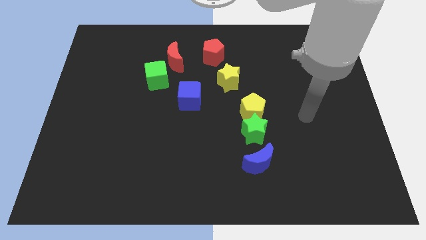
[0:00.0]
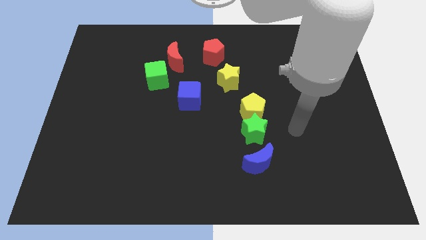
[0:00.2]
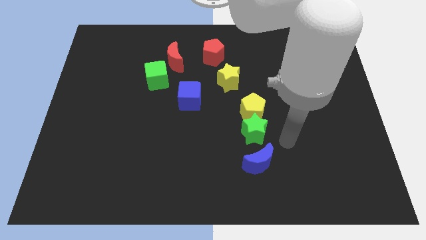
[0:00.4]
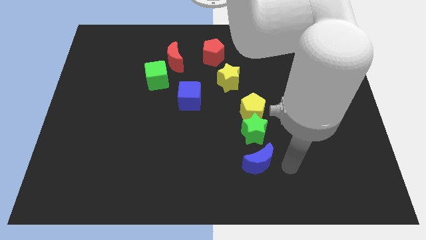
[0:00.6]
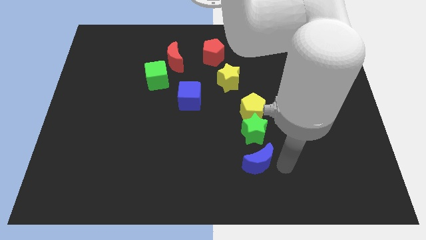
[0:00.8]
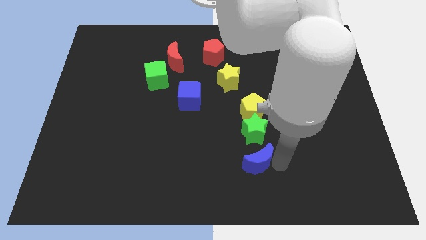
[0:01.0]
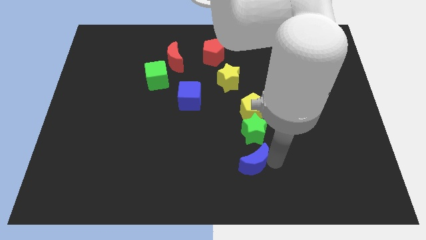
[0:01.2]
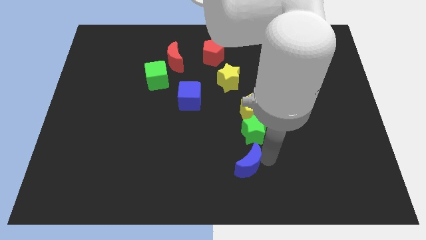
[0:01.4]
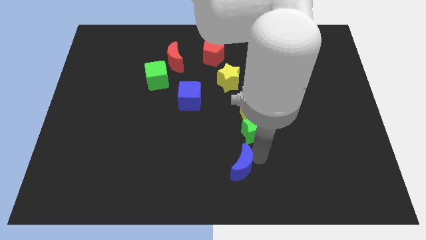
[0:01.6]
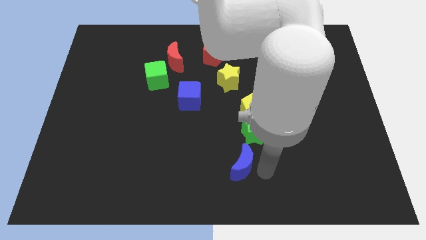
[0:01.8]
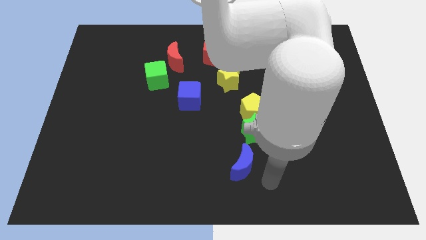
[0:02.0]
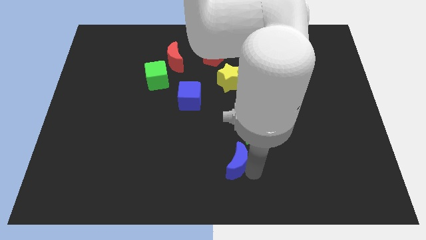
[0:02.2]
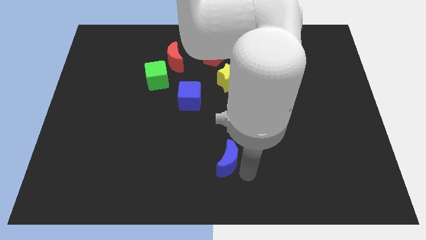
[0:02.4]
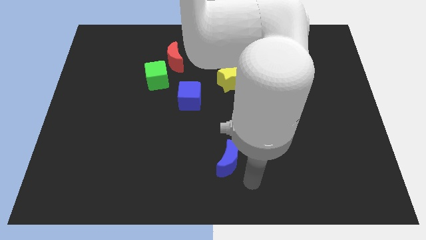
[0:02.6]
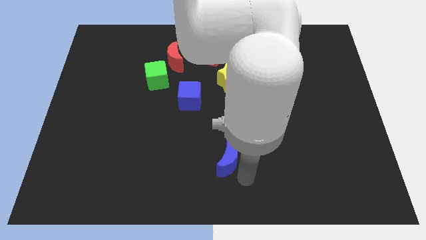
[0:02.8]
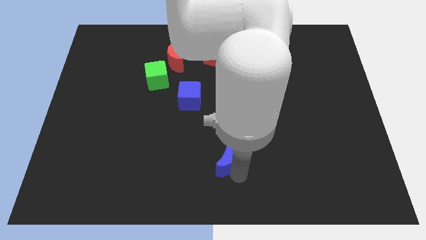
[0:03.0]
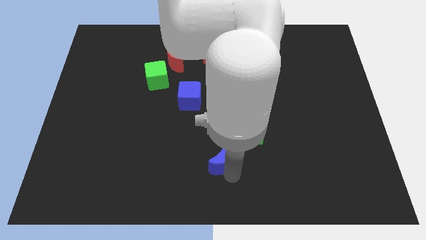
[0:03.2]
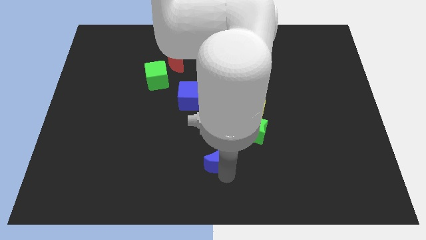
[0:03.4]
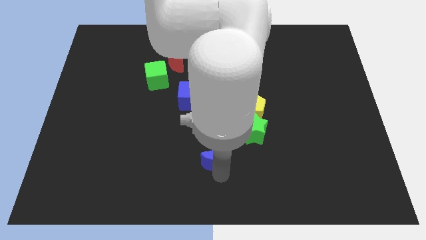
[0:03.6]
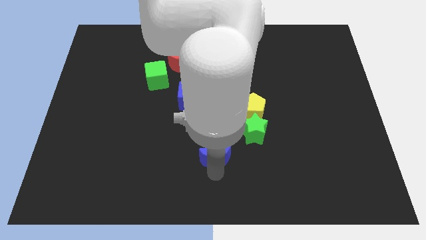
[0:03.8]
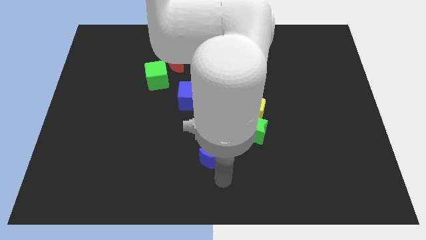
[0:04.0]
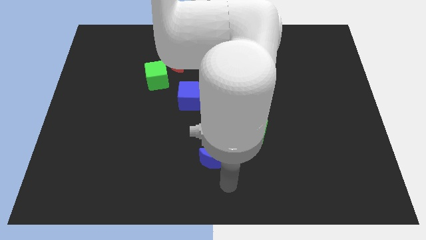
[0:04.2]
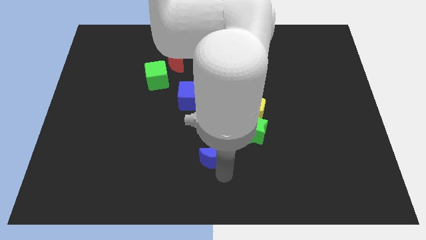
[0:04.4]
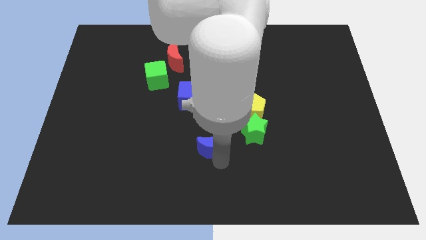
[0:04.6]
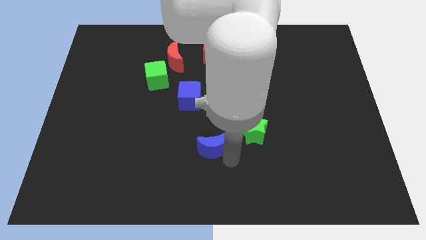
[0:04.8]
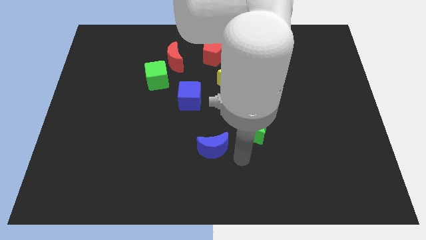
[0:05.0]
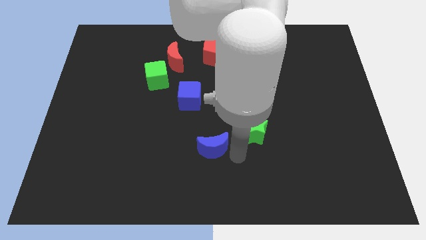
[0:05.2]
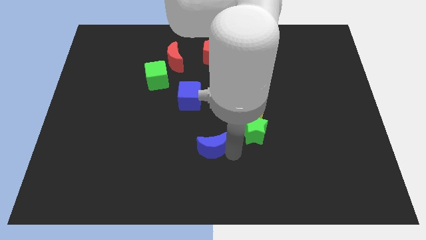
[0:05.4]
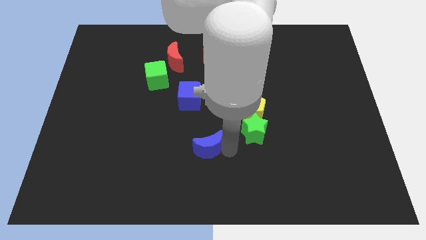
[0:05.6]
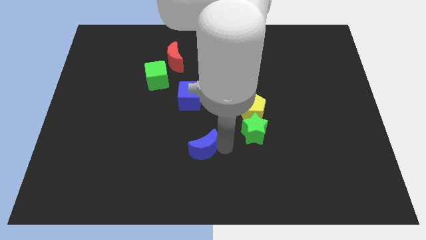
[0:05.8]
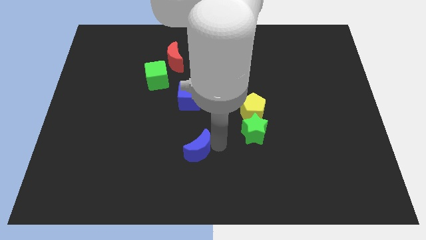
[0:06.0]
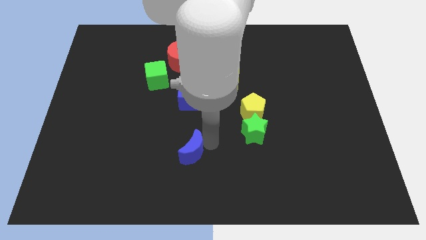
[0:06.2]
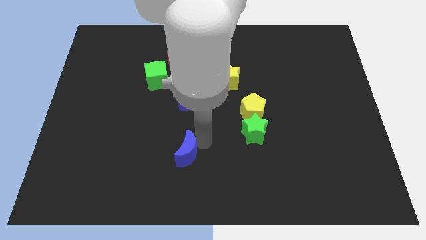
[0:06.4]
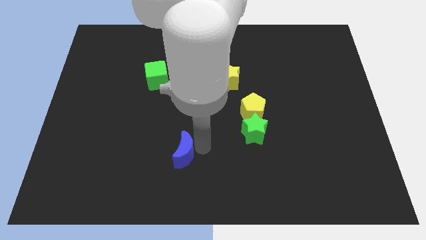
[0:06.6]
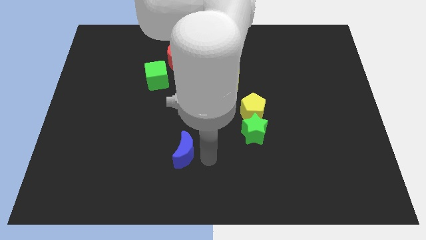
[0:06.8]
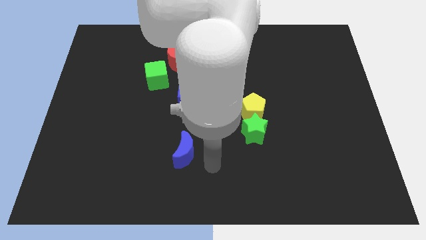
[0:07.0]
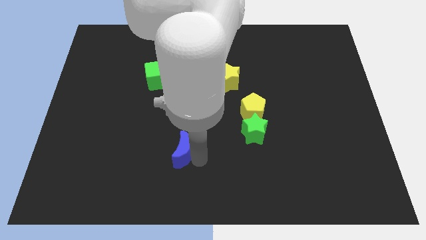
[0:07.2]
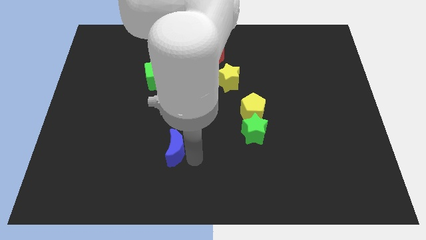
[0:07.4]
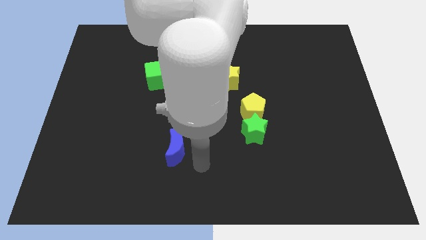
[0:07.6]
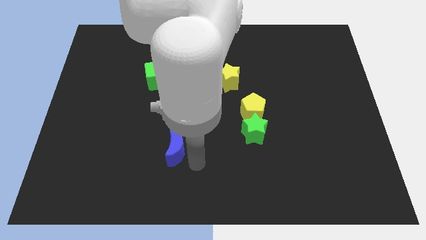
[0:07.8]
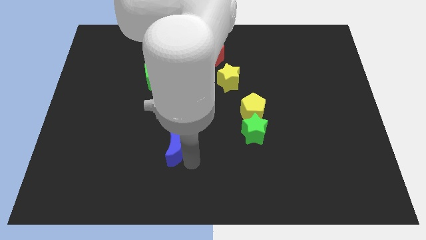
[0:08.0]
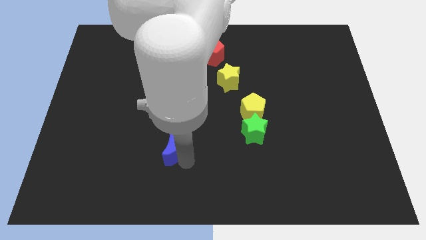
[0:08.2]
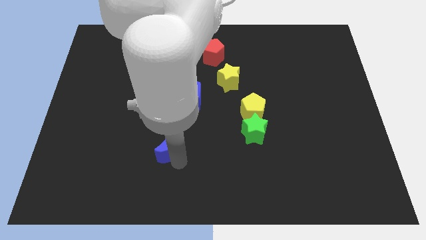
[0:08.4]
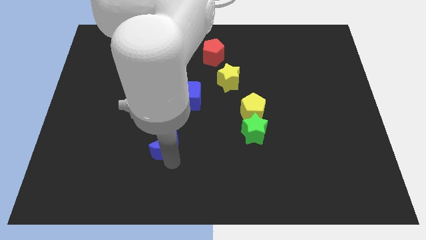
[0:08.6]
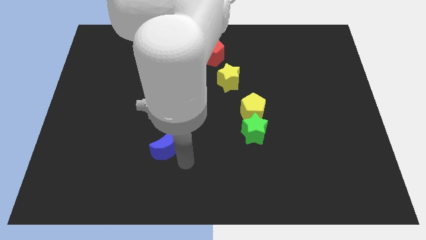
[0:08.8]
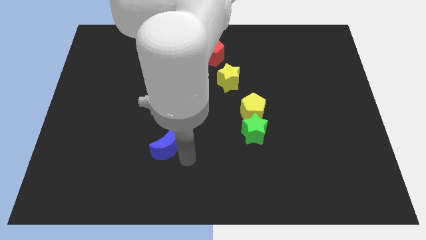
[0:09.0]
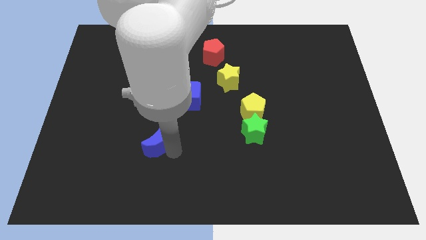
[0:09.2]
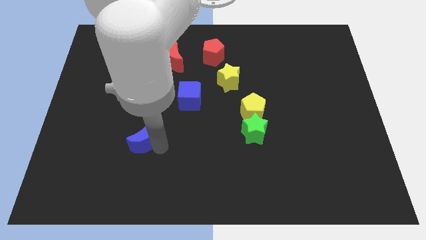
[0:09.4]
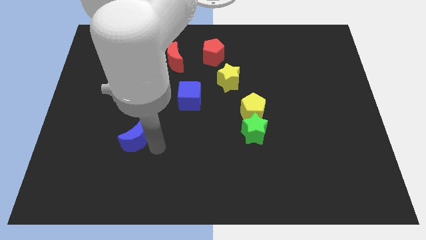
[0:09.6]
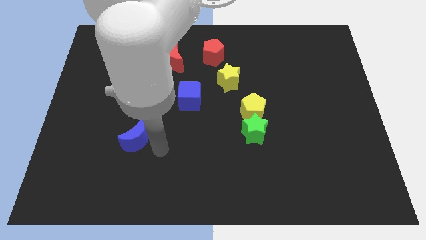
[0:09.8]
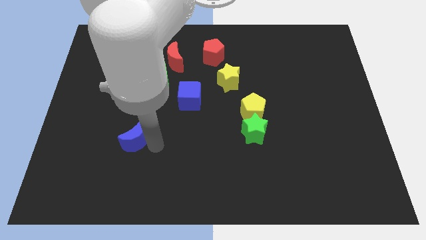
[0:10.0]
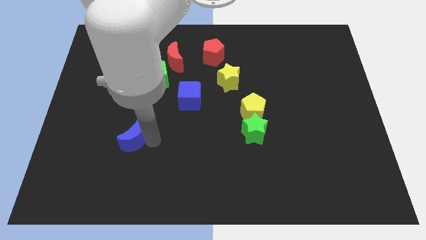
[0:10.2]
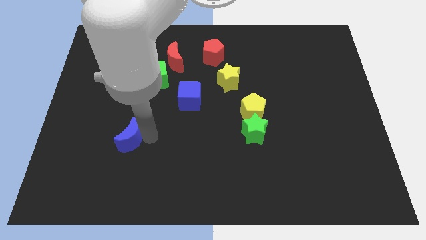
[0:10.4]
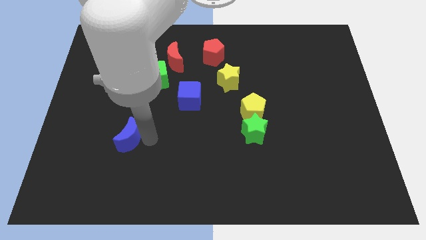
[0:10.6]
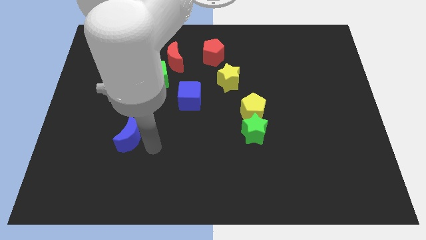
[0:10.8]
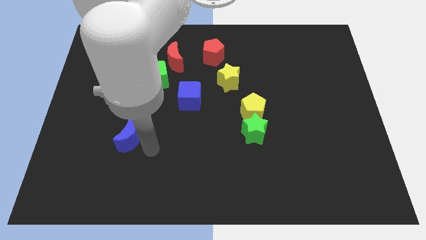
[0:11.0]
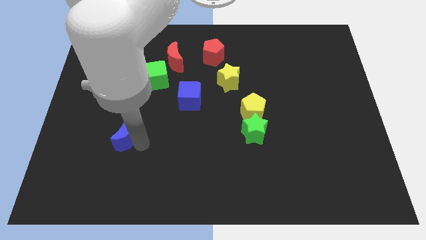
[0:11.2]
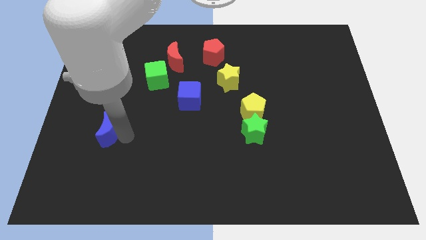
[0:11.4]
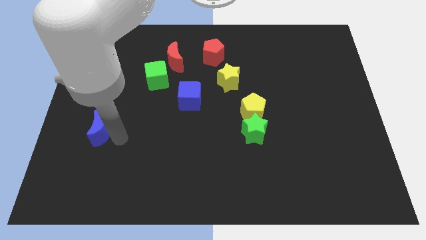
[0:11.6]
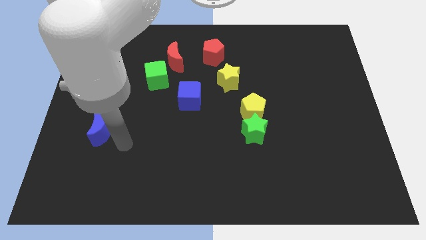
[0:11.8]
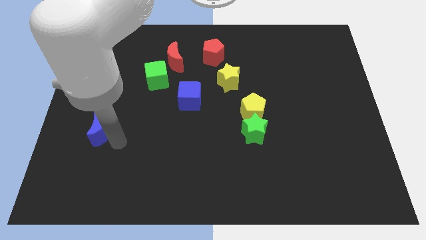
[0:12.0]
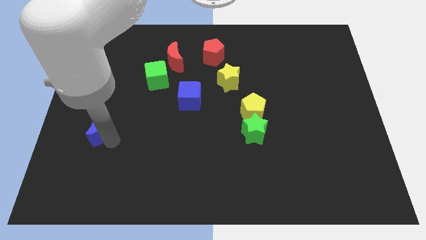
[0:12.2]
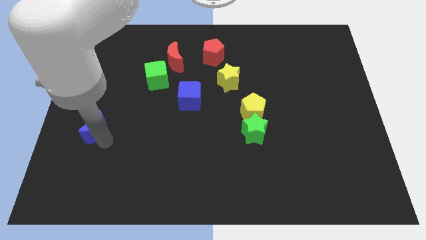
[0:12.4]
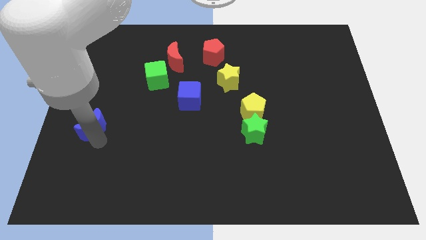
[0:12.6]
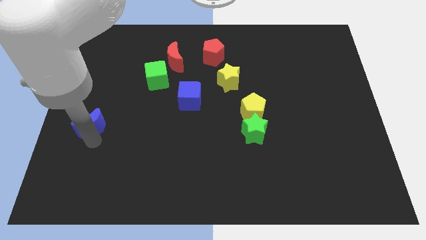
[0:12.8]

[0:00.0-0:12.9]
put the blue moon to the left side of the board

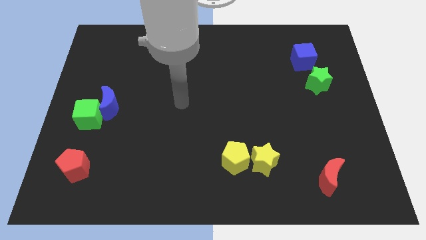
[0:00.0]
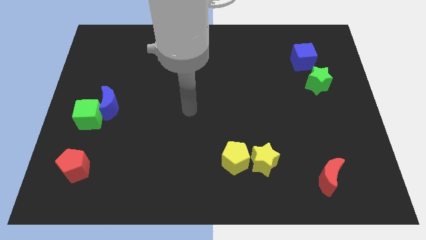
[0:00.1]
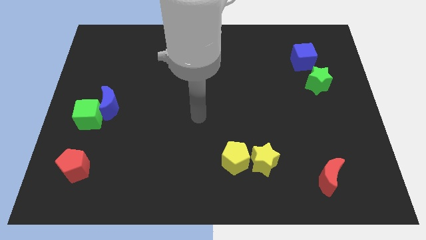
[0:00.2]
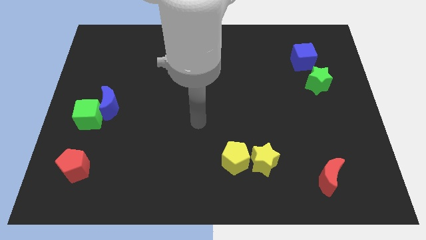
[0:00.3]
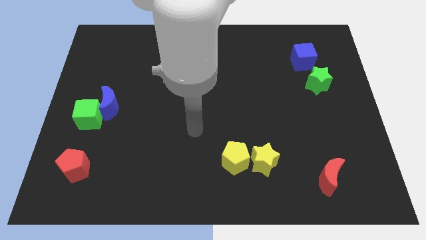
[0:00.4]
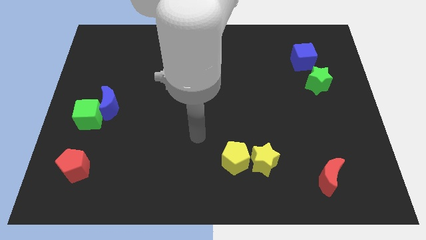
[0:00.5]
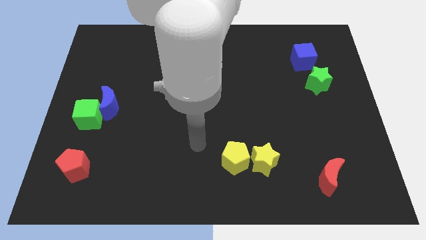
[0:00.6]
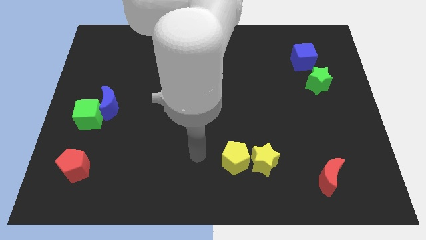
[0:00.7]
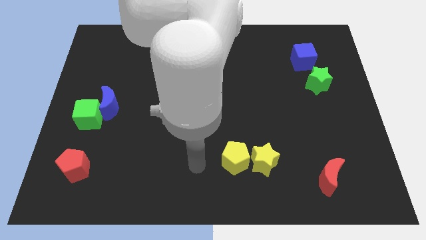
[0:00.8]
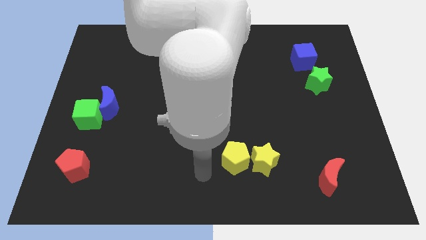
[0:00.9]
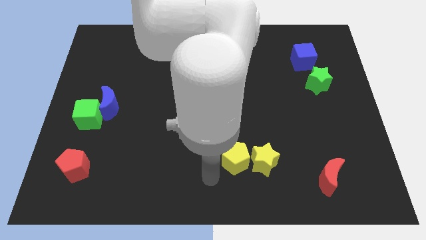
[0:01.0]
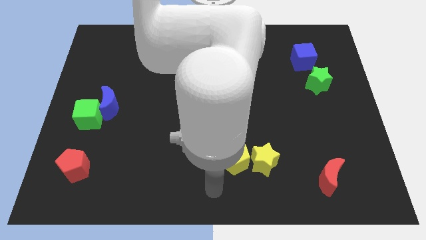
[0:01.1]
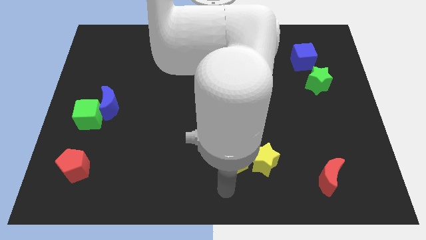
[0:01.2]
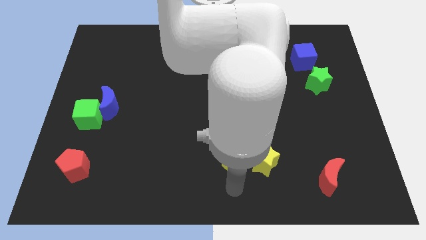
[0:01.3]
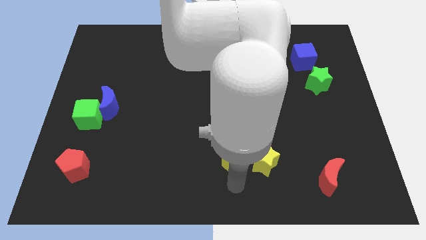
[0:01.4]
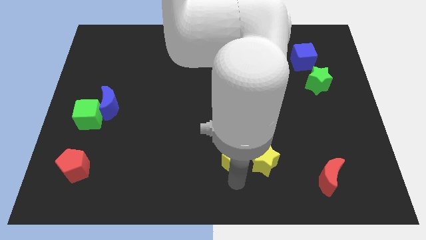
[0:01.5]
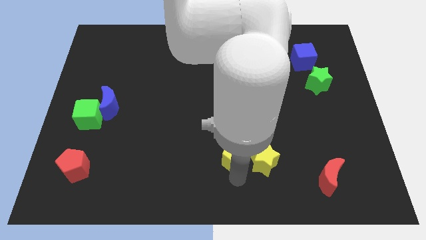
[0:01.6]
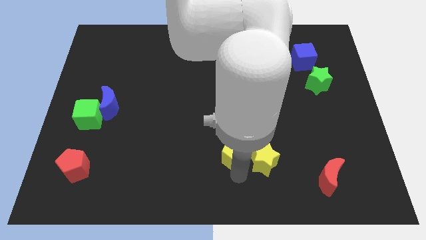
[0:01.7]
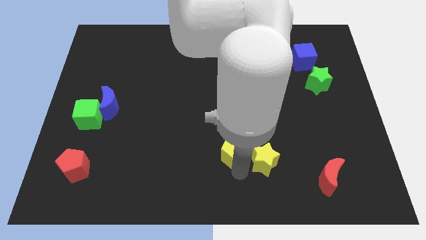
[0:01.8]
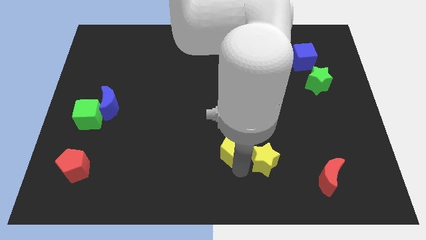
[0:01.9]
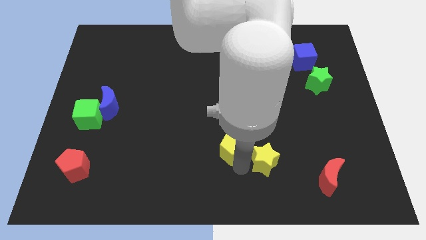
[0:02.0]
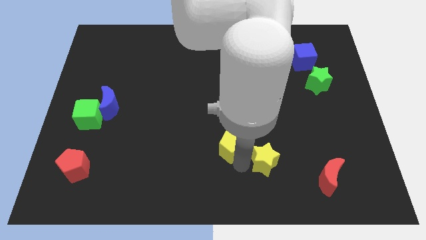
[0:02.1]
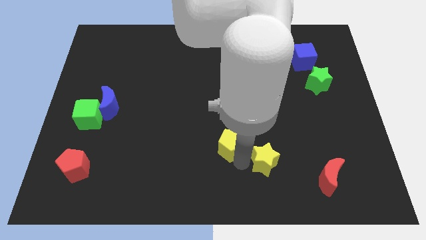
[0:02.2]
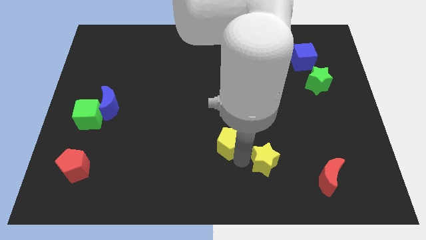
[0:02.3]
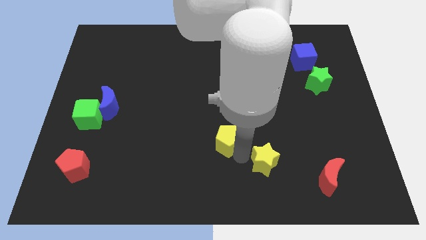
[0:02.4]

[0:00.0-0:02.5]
push the yellow pentagon to the middle
